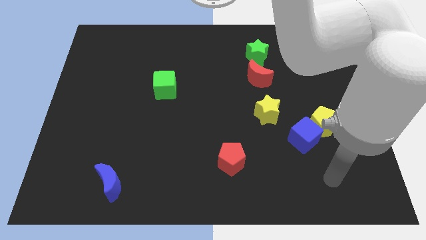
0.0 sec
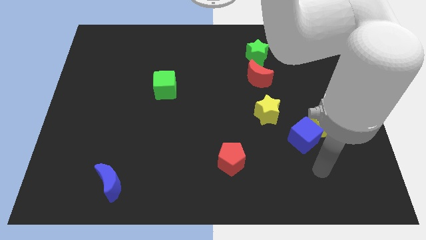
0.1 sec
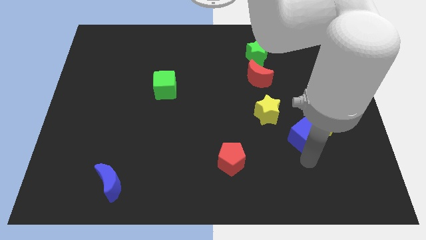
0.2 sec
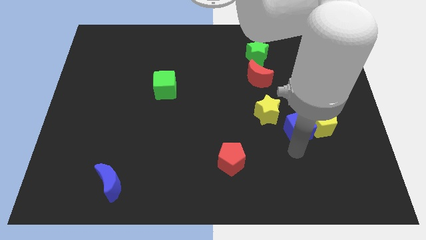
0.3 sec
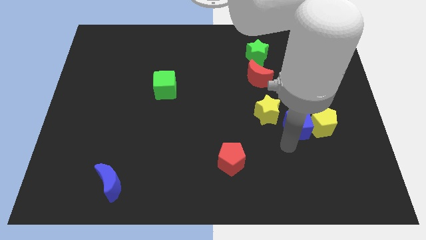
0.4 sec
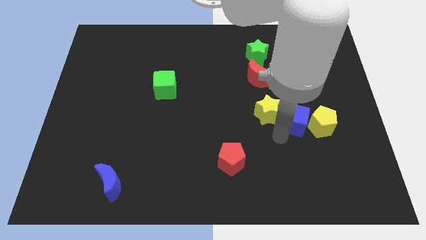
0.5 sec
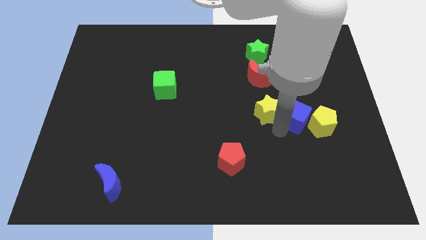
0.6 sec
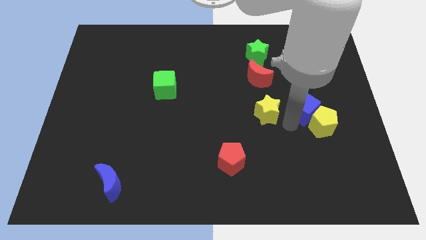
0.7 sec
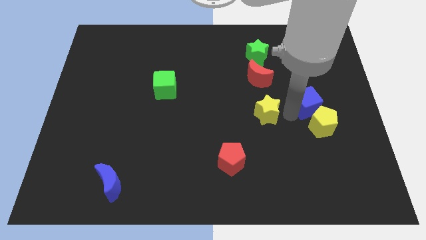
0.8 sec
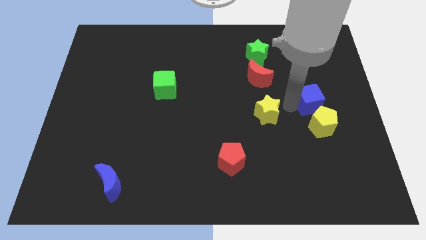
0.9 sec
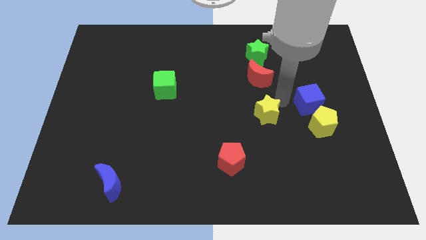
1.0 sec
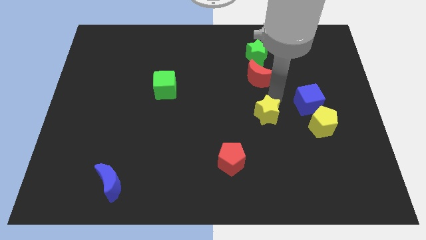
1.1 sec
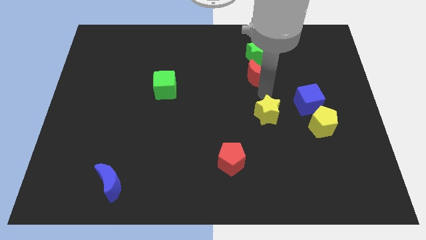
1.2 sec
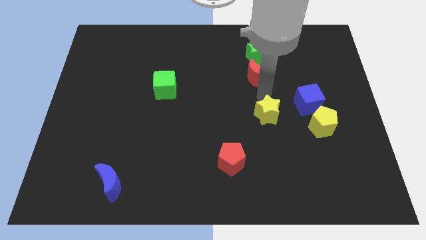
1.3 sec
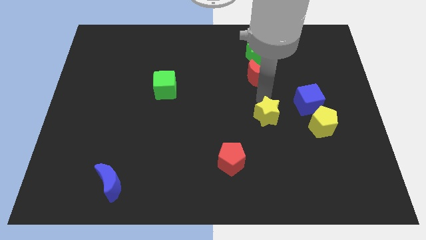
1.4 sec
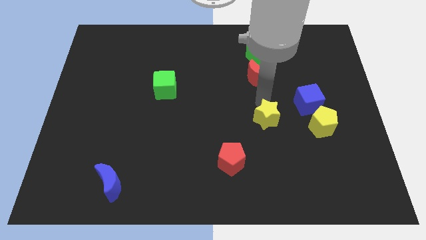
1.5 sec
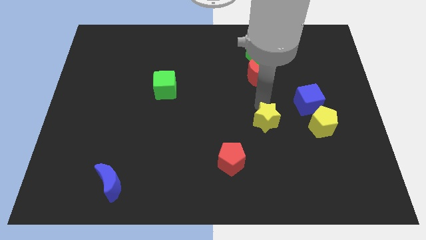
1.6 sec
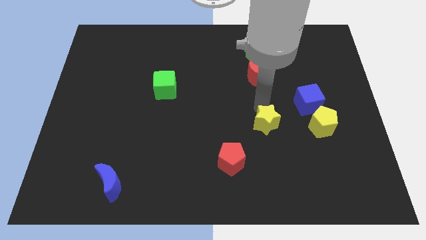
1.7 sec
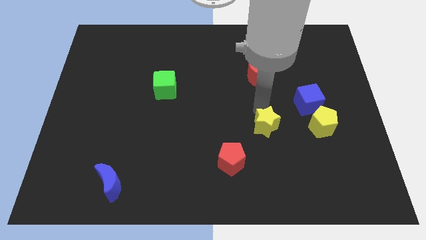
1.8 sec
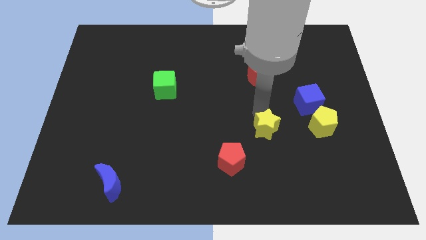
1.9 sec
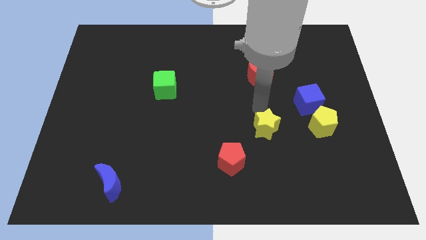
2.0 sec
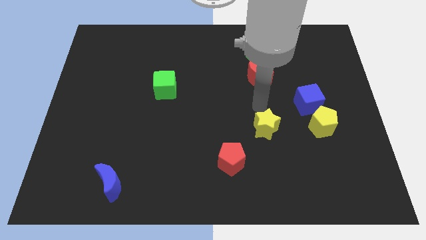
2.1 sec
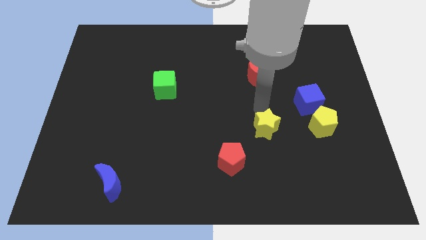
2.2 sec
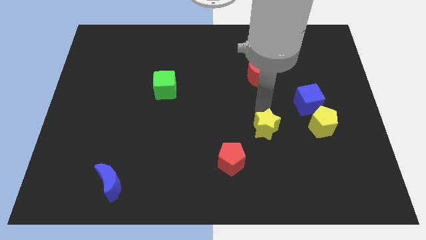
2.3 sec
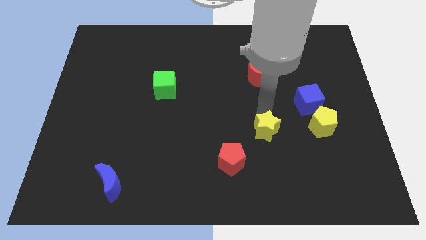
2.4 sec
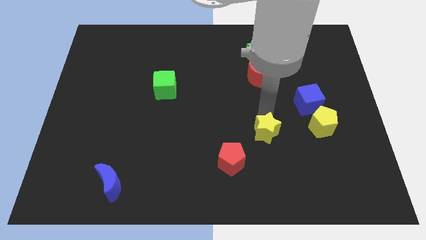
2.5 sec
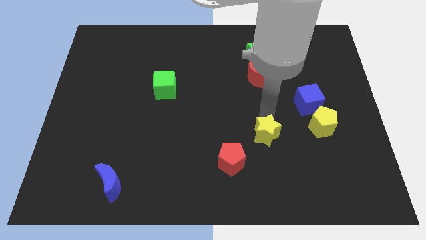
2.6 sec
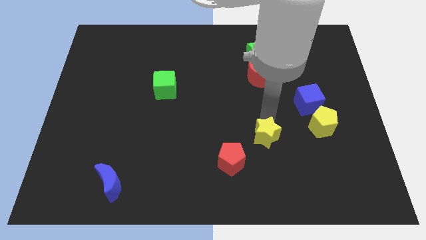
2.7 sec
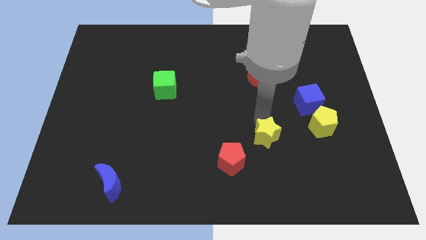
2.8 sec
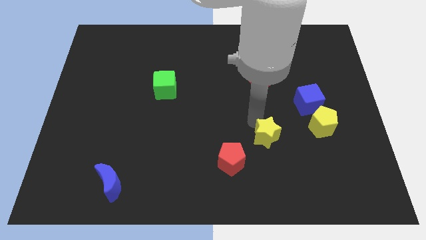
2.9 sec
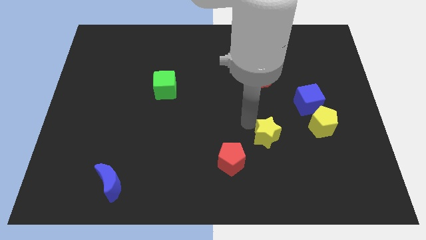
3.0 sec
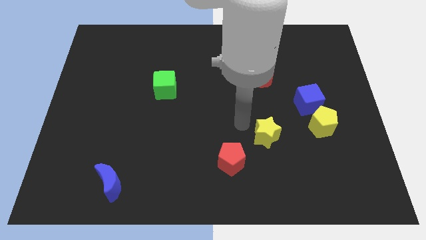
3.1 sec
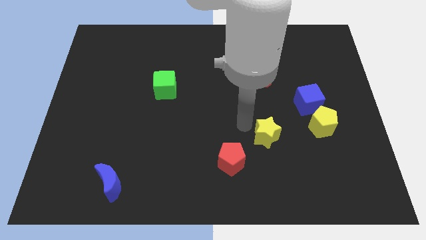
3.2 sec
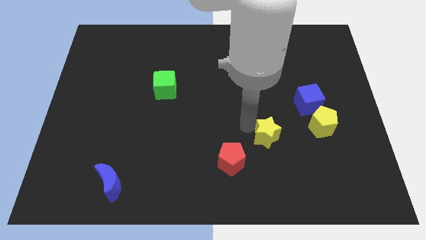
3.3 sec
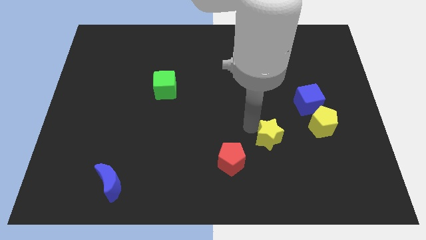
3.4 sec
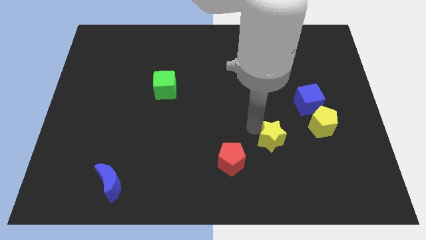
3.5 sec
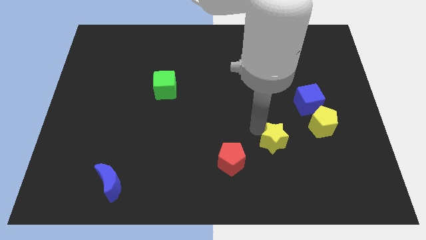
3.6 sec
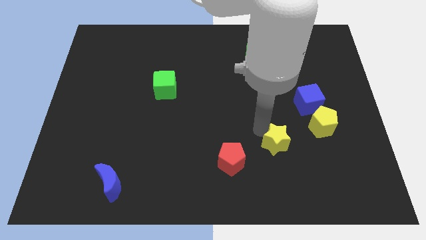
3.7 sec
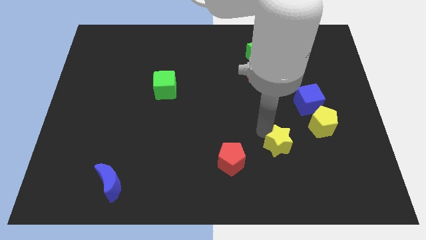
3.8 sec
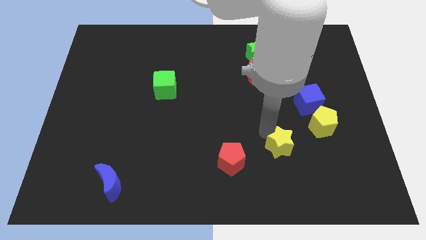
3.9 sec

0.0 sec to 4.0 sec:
slide the yellow star a little bit downwards and right diagonally

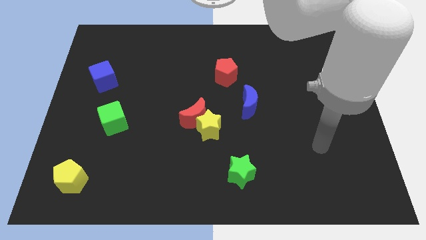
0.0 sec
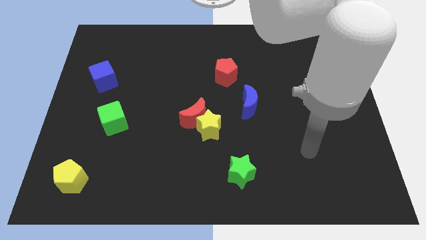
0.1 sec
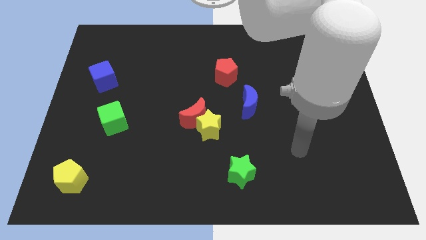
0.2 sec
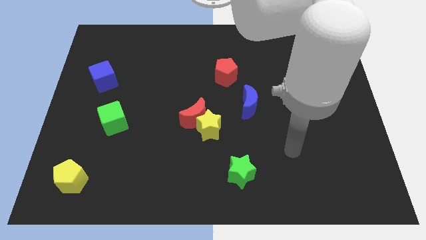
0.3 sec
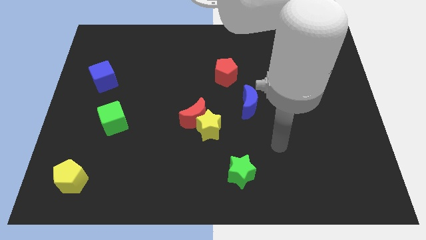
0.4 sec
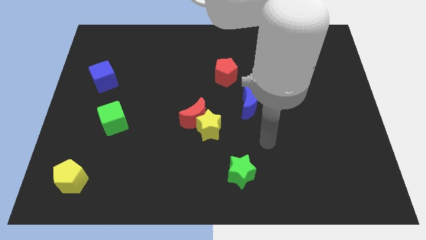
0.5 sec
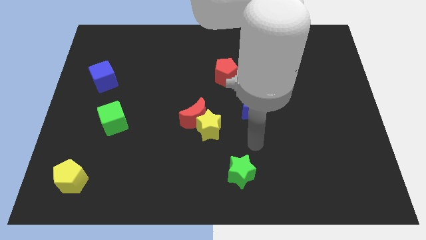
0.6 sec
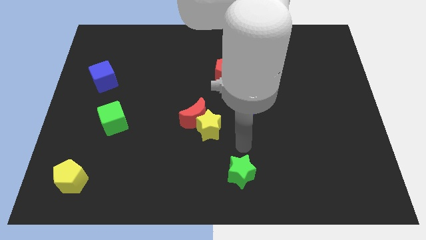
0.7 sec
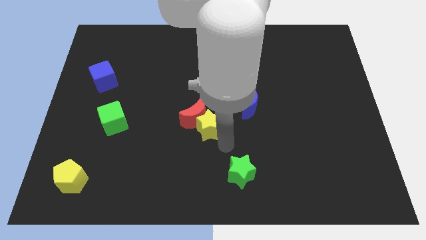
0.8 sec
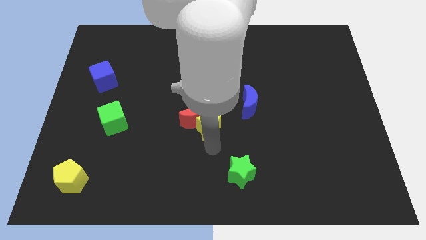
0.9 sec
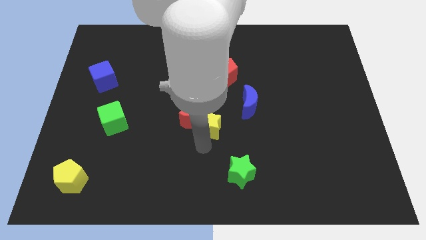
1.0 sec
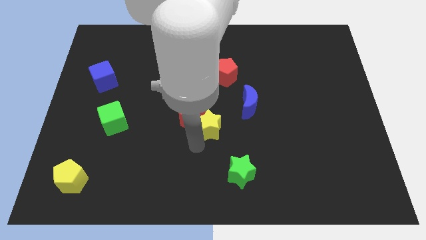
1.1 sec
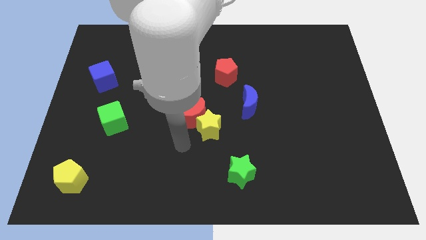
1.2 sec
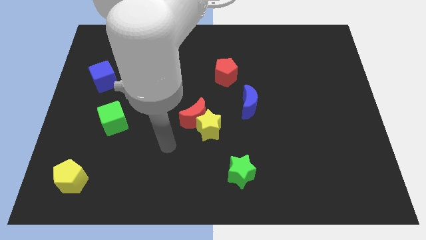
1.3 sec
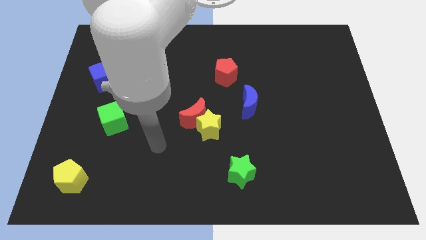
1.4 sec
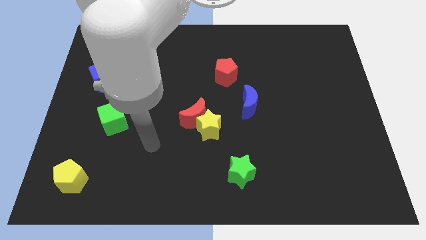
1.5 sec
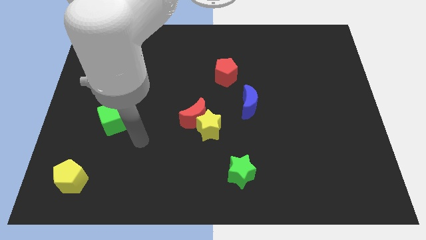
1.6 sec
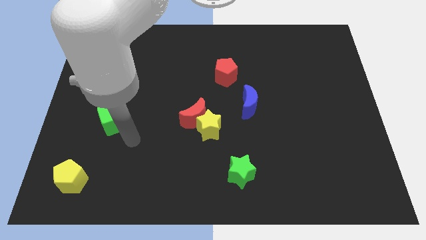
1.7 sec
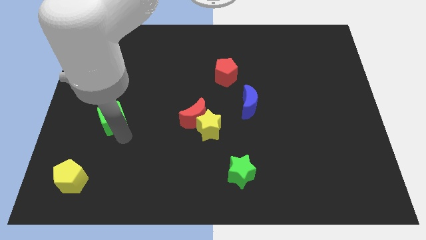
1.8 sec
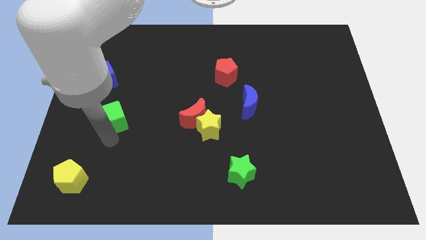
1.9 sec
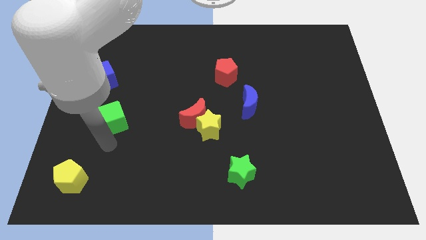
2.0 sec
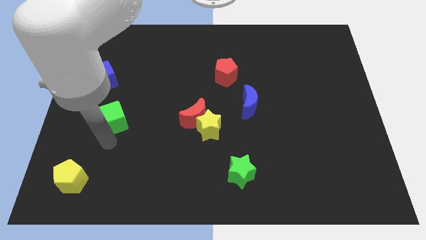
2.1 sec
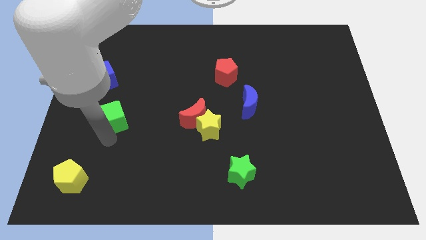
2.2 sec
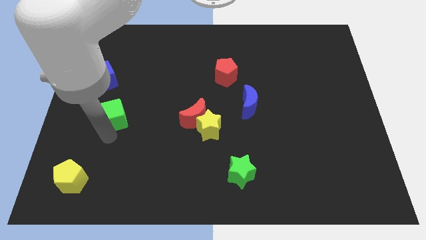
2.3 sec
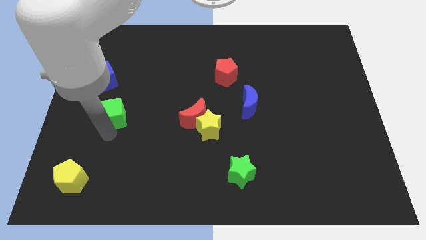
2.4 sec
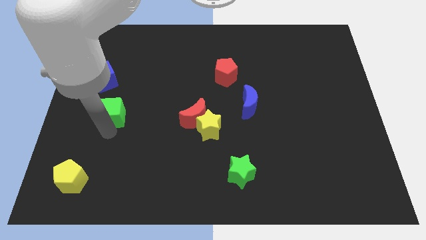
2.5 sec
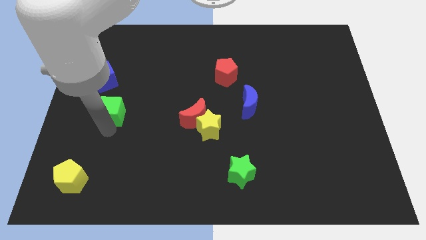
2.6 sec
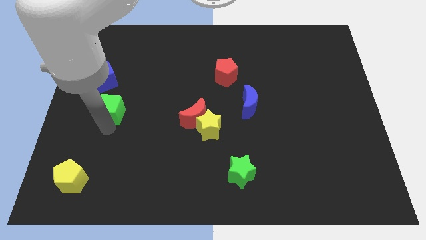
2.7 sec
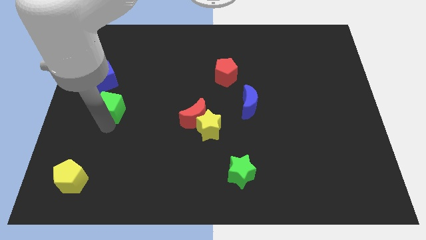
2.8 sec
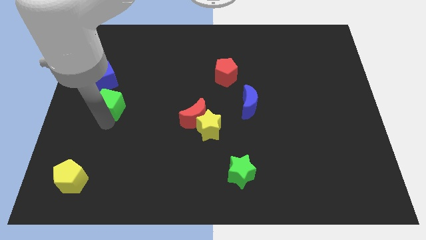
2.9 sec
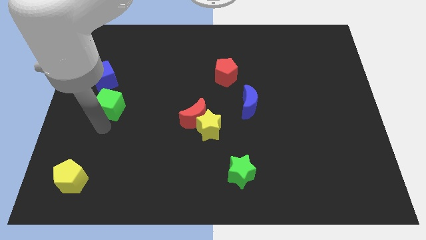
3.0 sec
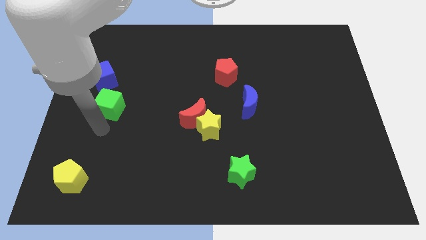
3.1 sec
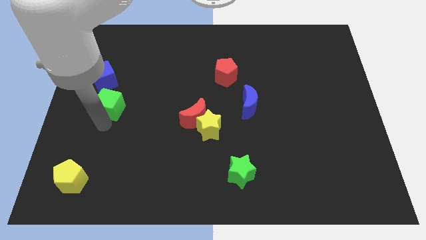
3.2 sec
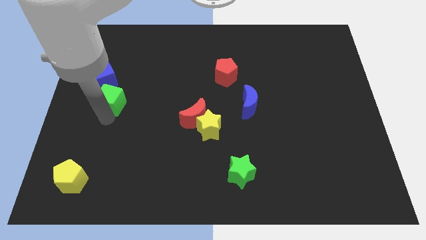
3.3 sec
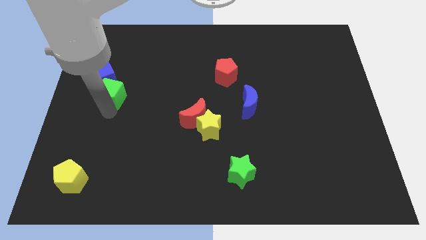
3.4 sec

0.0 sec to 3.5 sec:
slightly slide the green cube upwards

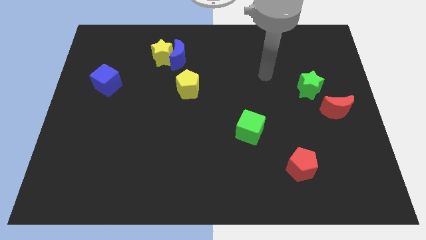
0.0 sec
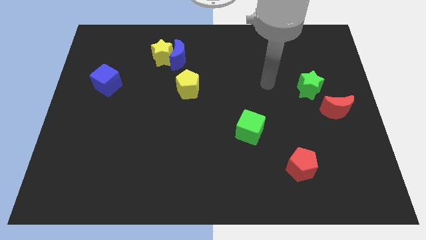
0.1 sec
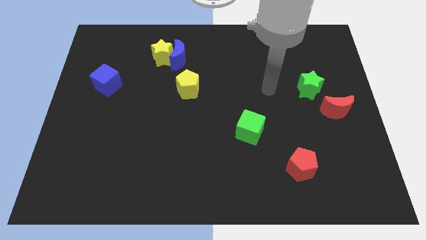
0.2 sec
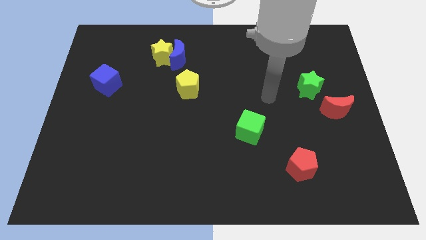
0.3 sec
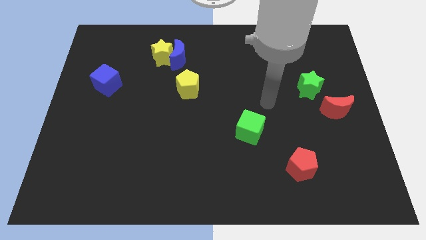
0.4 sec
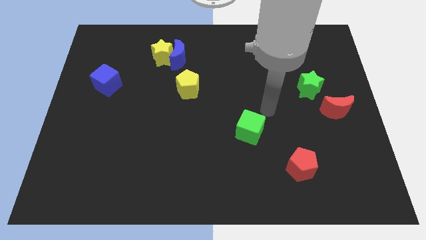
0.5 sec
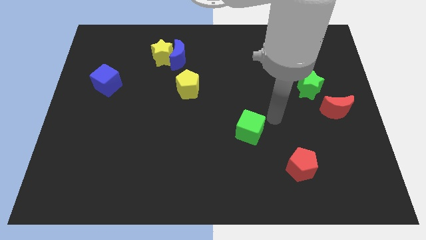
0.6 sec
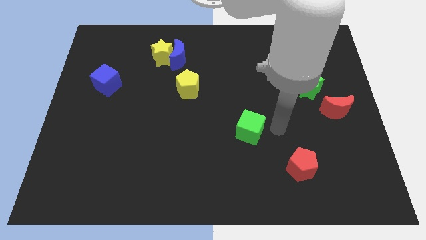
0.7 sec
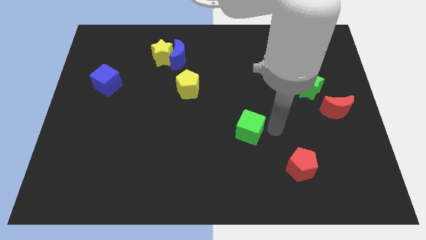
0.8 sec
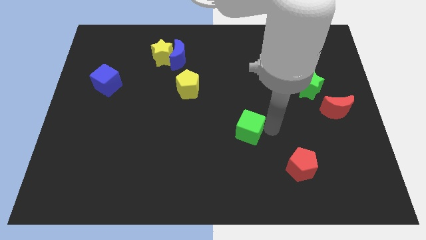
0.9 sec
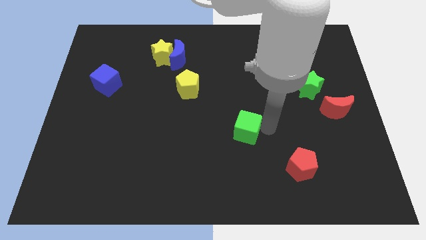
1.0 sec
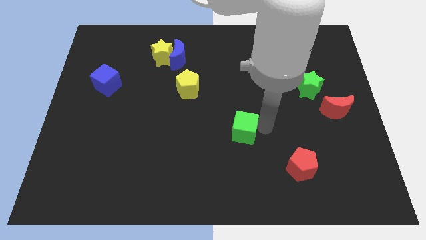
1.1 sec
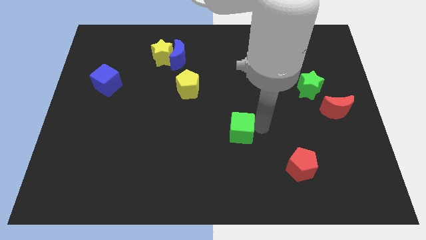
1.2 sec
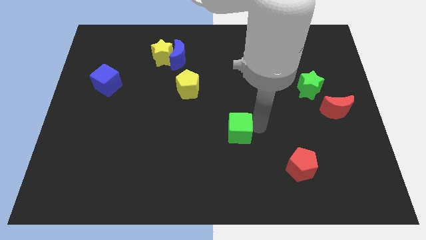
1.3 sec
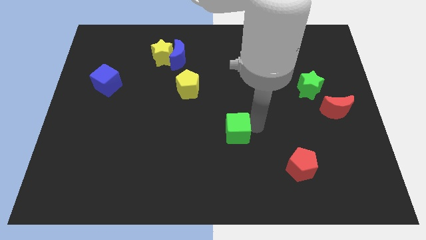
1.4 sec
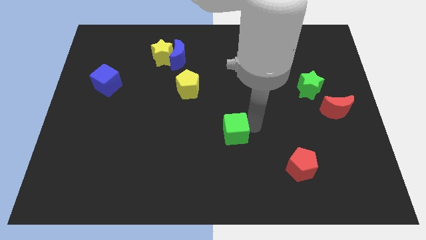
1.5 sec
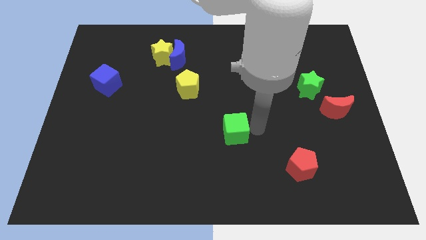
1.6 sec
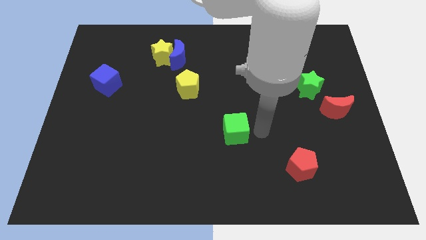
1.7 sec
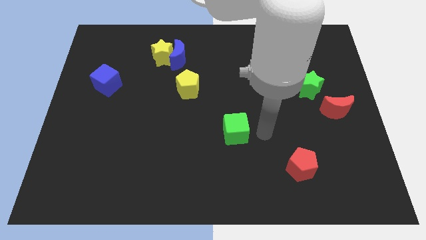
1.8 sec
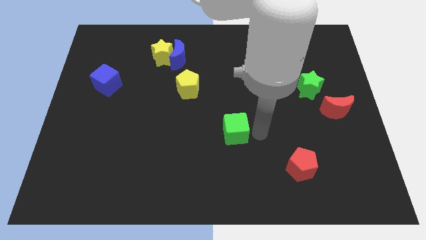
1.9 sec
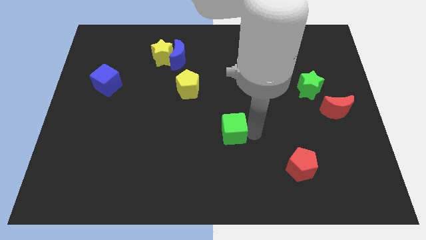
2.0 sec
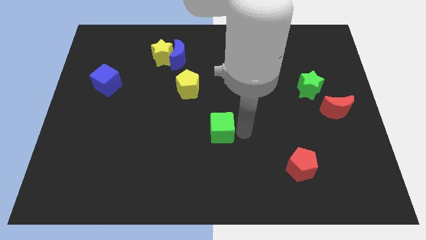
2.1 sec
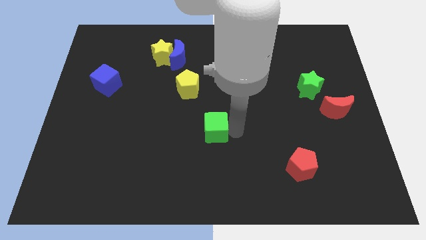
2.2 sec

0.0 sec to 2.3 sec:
slide the green cube a bit left
